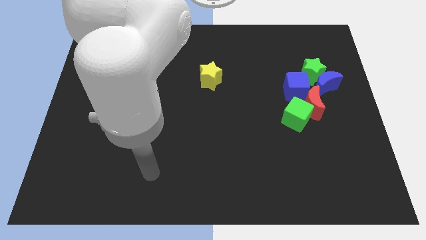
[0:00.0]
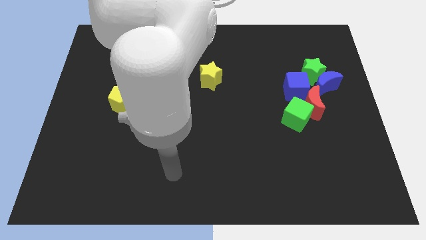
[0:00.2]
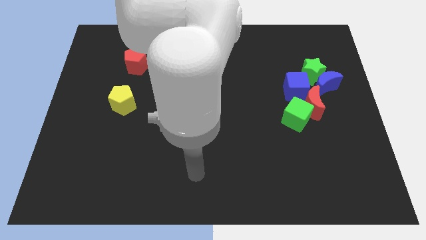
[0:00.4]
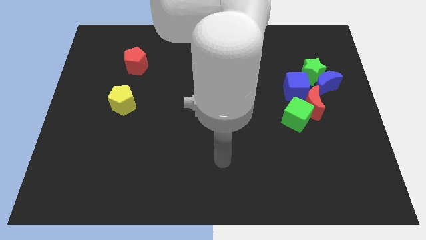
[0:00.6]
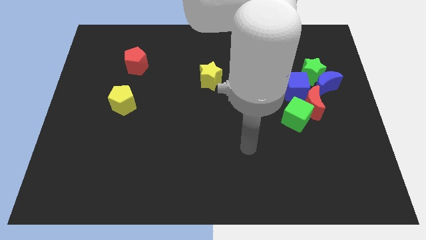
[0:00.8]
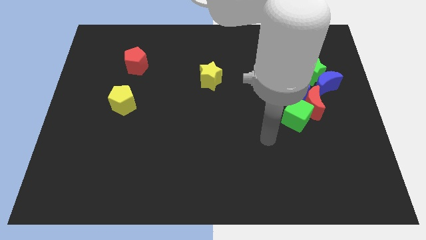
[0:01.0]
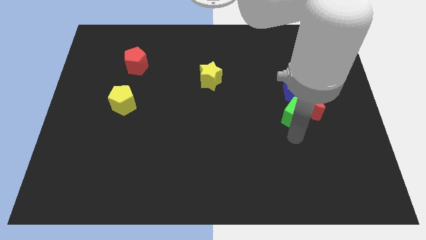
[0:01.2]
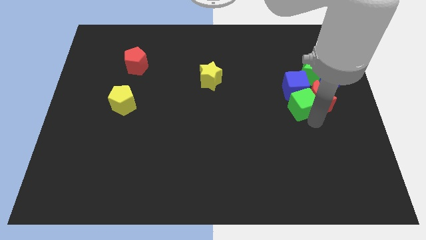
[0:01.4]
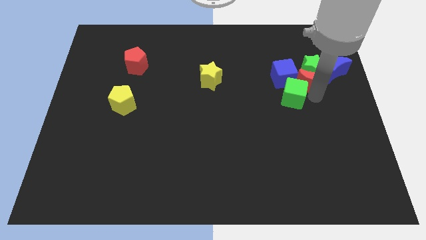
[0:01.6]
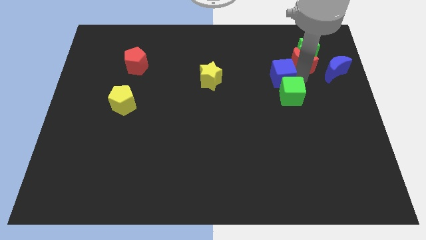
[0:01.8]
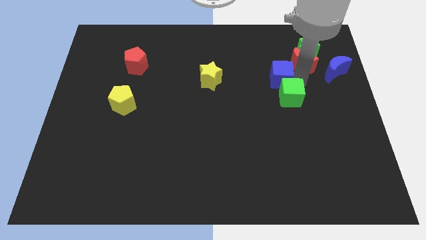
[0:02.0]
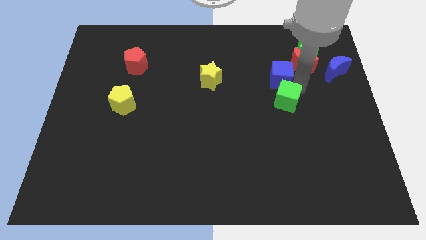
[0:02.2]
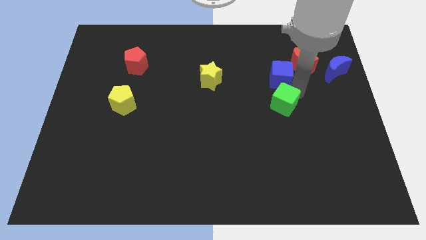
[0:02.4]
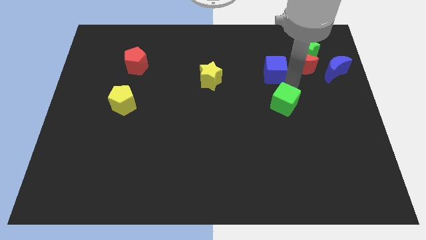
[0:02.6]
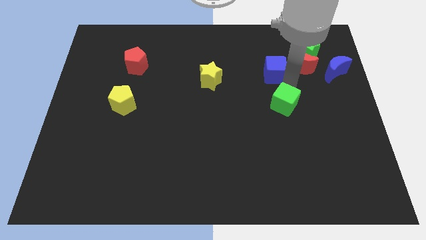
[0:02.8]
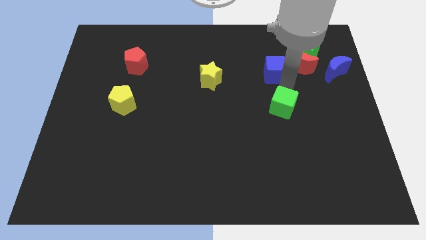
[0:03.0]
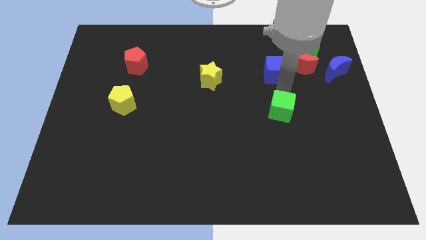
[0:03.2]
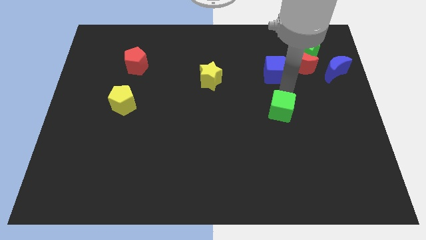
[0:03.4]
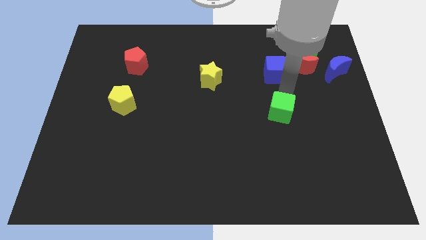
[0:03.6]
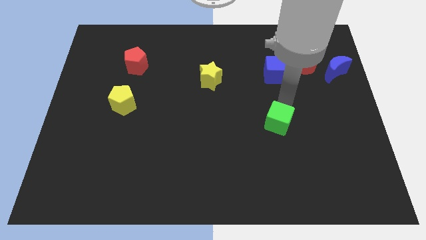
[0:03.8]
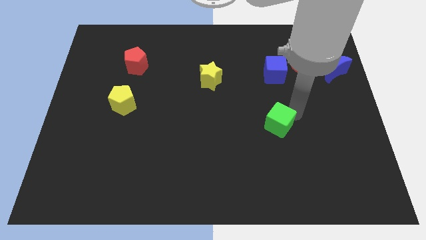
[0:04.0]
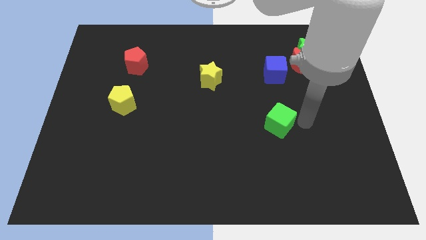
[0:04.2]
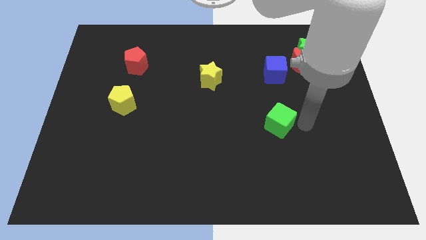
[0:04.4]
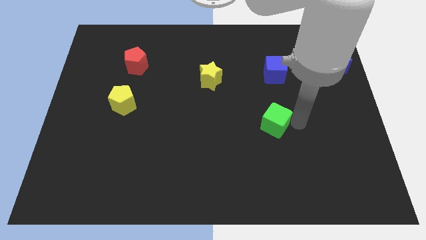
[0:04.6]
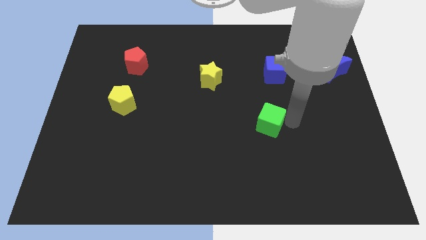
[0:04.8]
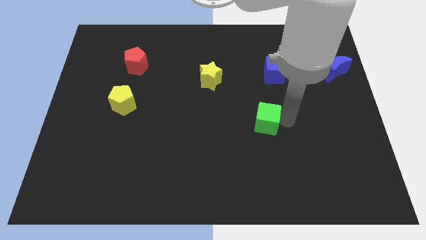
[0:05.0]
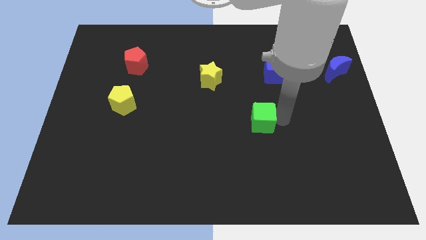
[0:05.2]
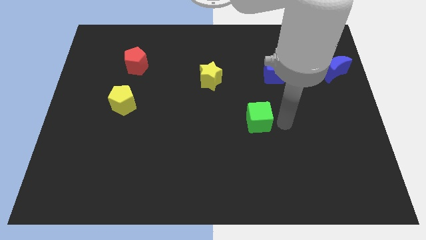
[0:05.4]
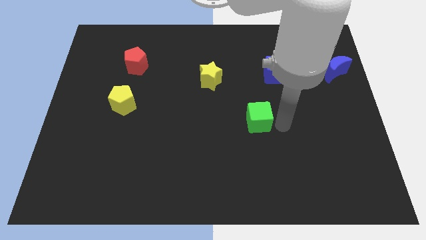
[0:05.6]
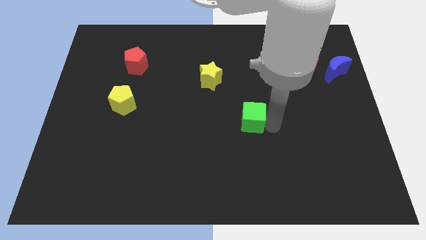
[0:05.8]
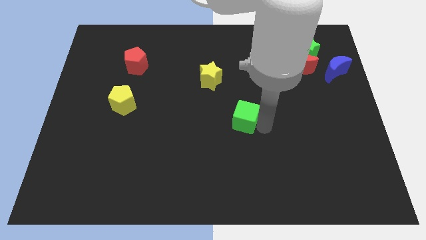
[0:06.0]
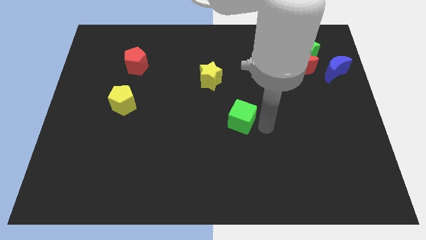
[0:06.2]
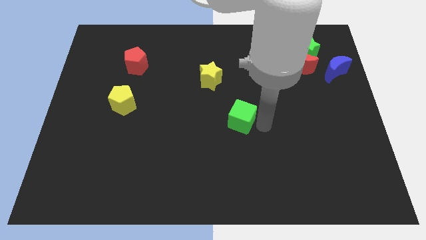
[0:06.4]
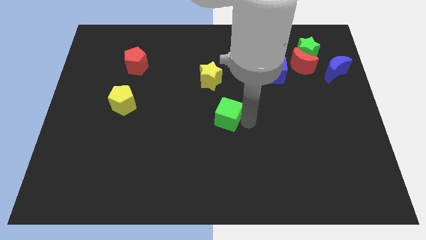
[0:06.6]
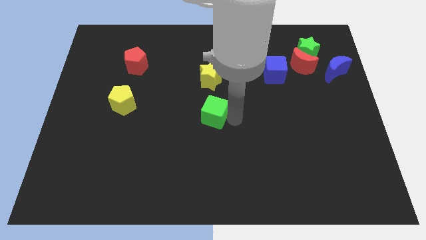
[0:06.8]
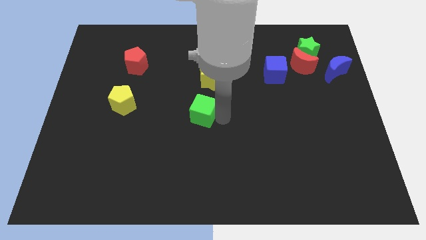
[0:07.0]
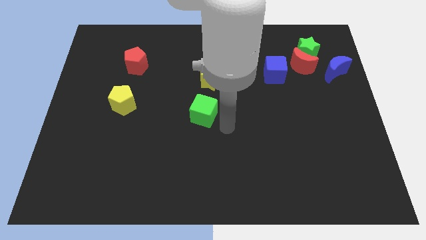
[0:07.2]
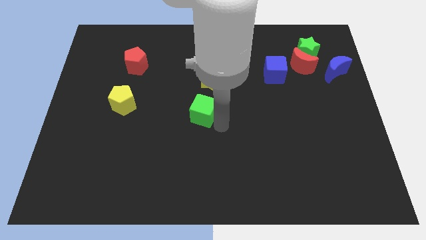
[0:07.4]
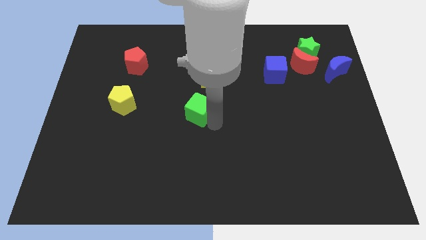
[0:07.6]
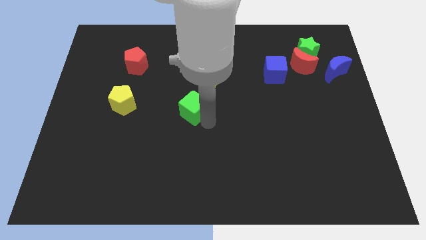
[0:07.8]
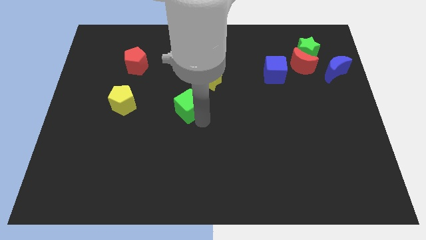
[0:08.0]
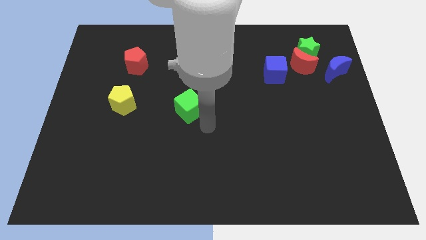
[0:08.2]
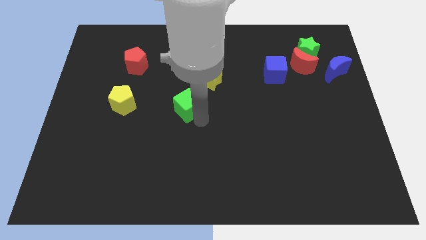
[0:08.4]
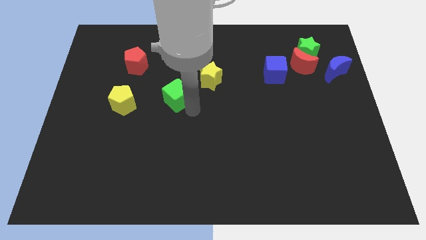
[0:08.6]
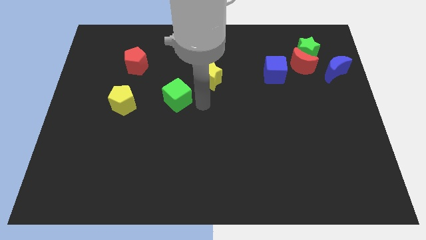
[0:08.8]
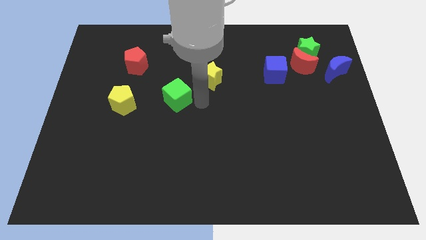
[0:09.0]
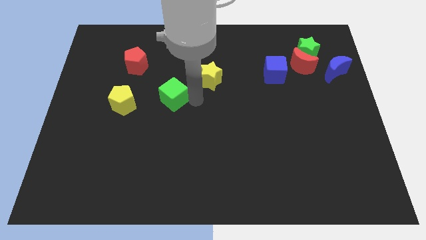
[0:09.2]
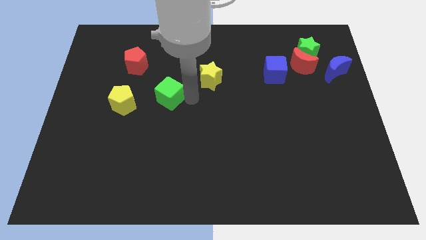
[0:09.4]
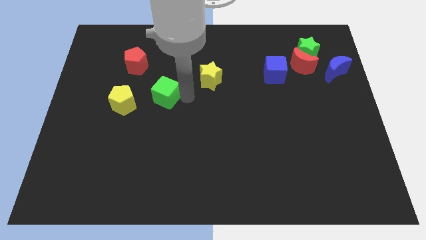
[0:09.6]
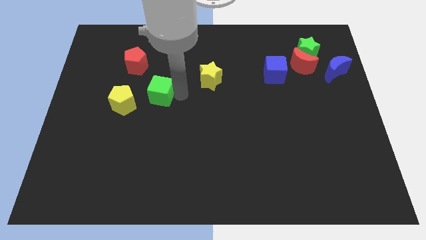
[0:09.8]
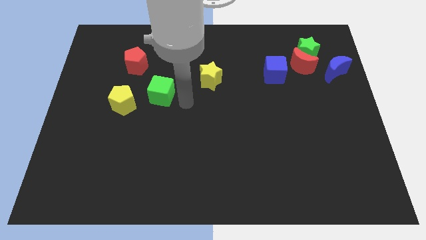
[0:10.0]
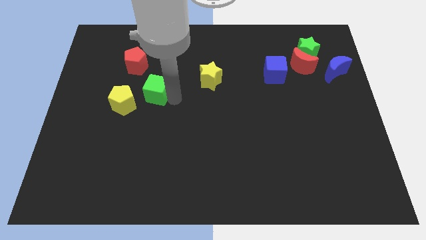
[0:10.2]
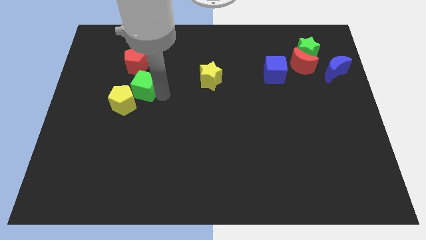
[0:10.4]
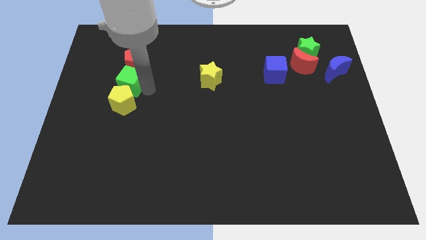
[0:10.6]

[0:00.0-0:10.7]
push the green cube to the bottom left of the red pentagon

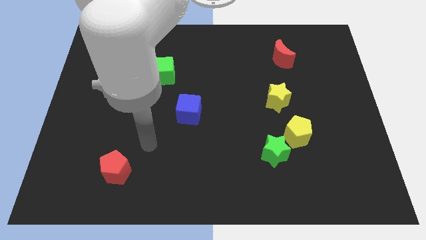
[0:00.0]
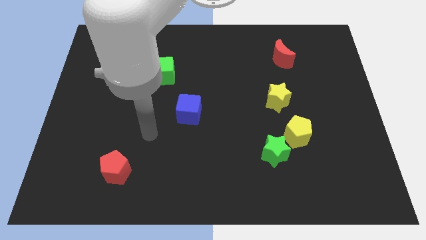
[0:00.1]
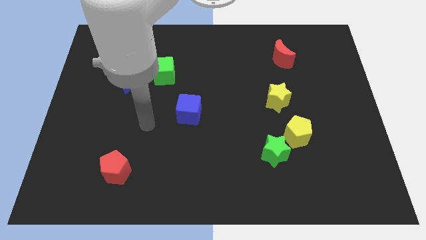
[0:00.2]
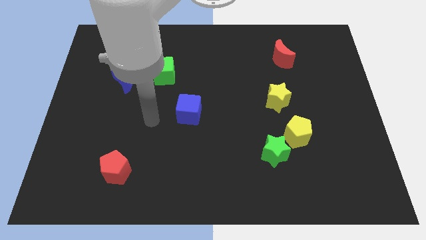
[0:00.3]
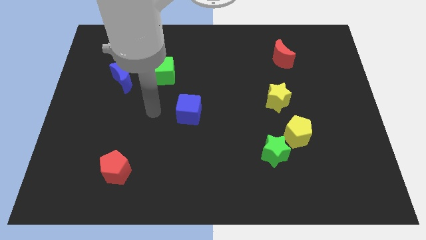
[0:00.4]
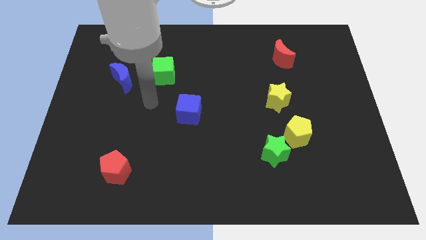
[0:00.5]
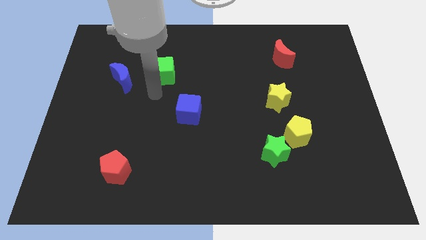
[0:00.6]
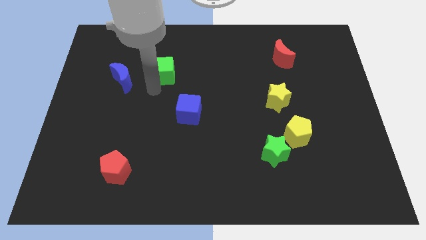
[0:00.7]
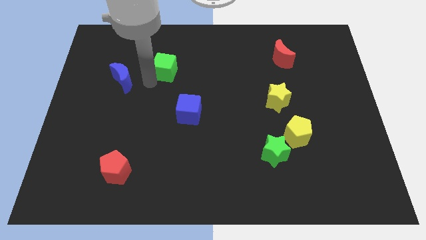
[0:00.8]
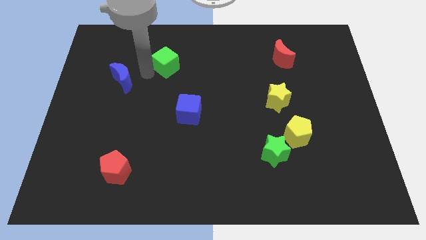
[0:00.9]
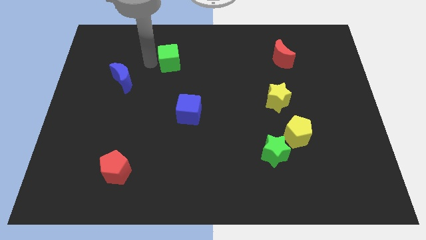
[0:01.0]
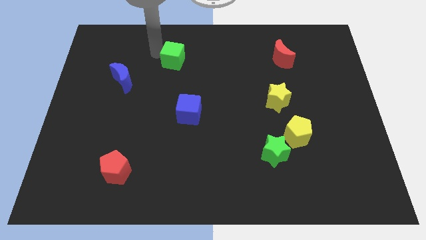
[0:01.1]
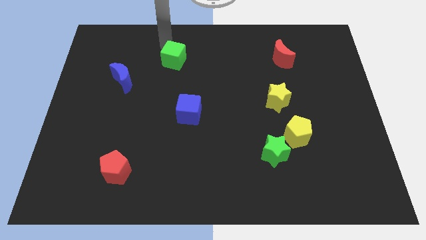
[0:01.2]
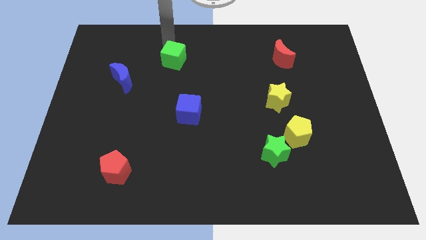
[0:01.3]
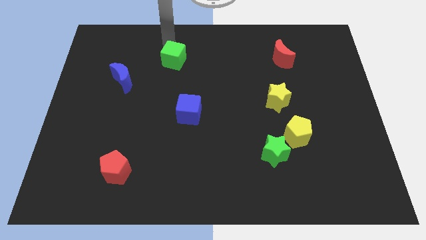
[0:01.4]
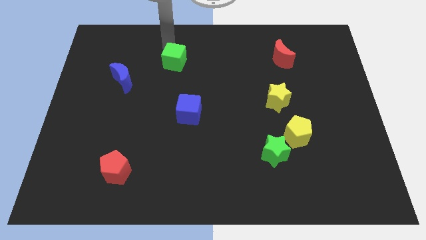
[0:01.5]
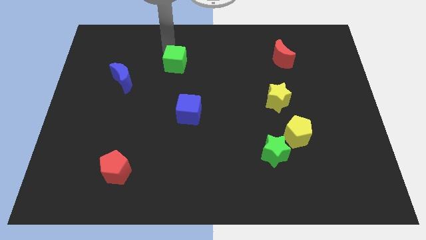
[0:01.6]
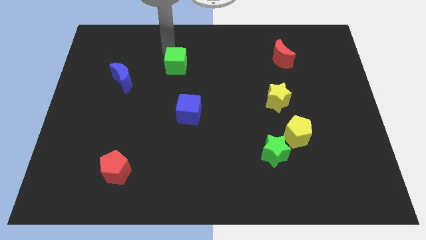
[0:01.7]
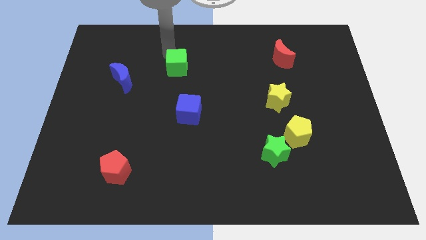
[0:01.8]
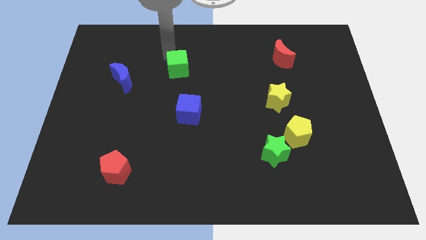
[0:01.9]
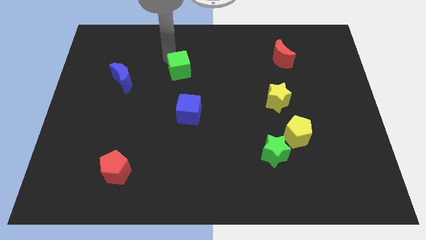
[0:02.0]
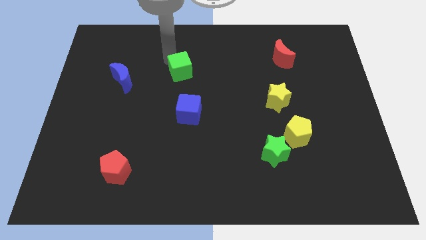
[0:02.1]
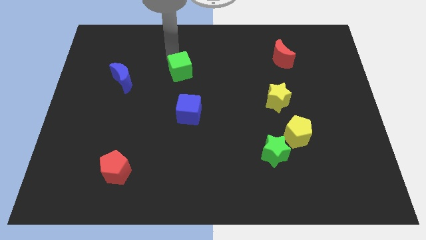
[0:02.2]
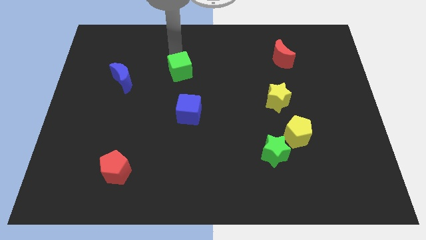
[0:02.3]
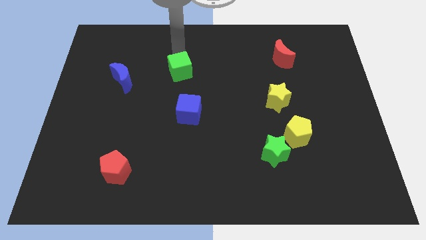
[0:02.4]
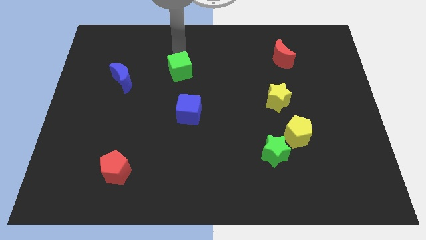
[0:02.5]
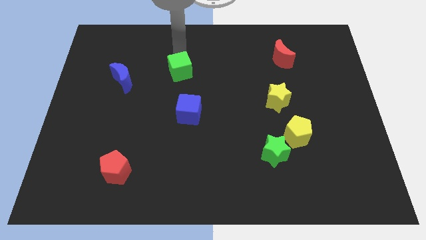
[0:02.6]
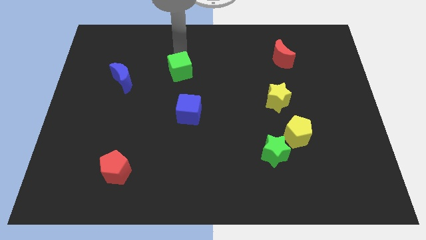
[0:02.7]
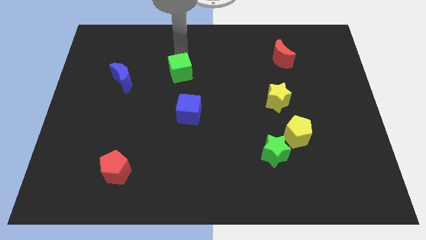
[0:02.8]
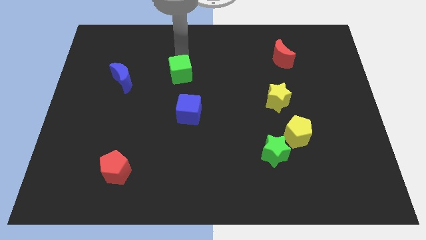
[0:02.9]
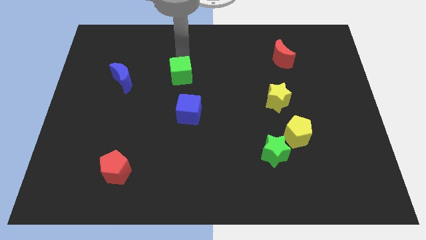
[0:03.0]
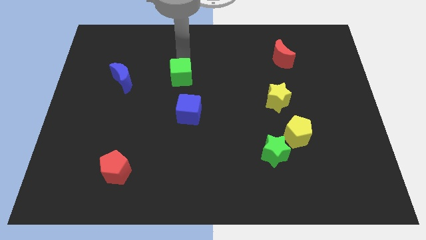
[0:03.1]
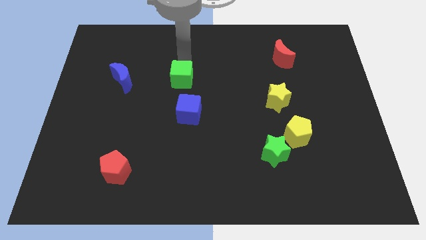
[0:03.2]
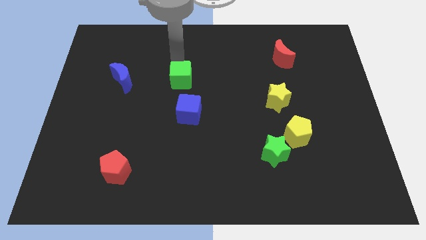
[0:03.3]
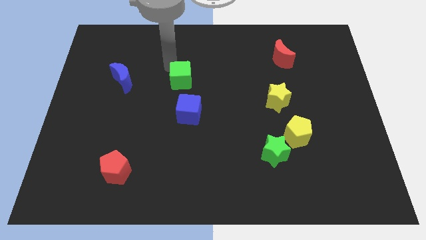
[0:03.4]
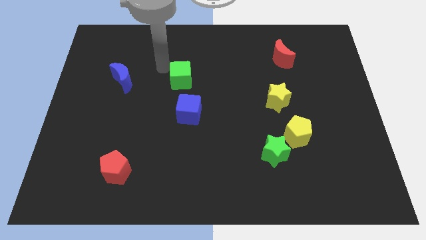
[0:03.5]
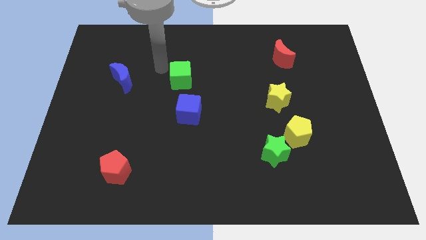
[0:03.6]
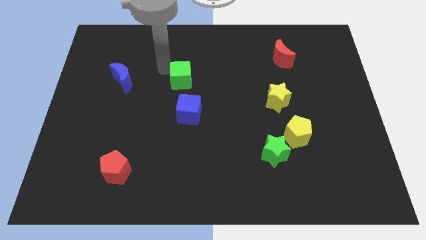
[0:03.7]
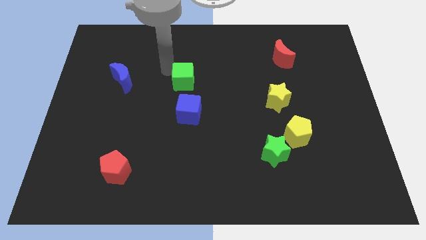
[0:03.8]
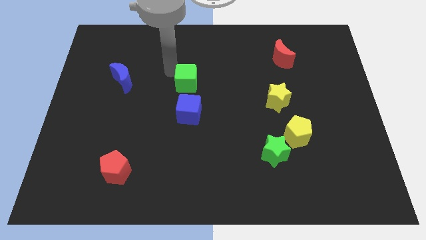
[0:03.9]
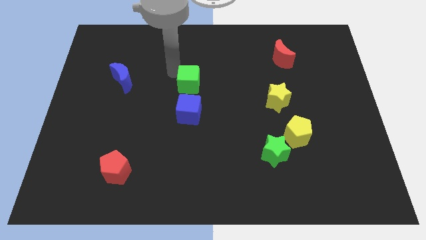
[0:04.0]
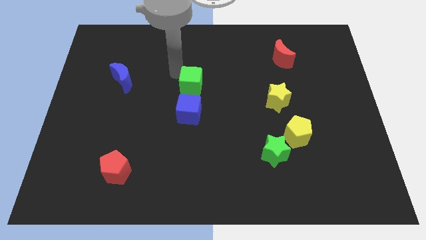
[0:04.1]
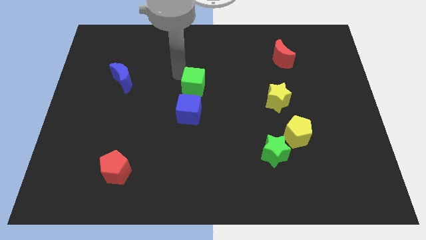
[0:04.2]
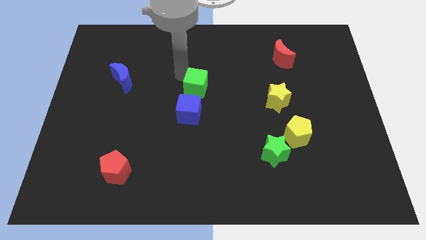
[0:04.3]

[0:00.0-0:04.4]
put the green cube to the top right side of the blue cube
